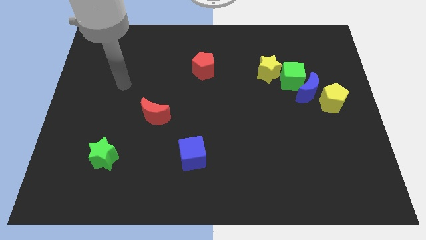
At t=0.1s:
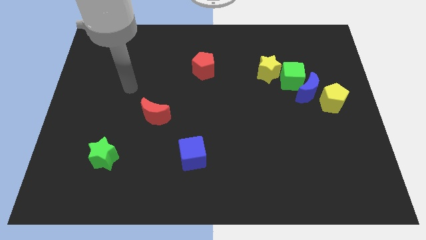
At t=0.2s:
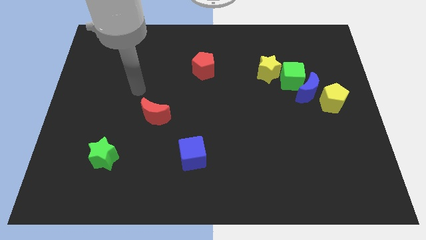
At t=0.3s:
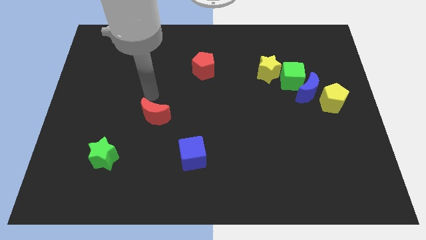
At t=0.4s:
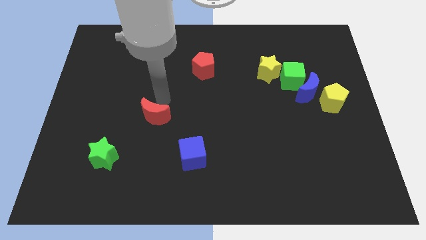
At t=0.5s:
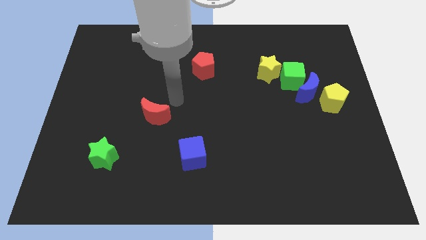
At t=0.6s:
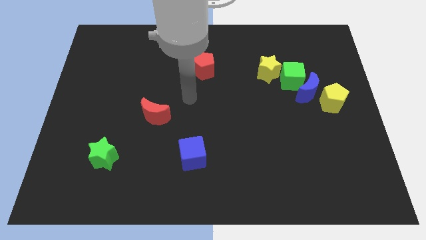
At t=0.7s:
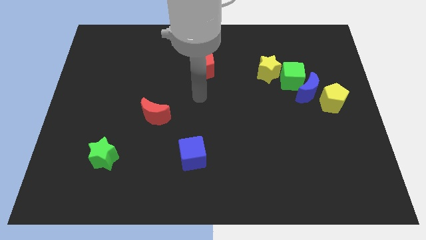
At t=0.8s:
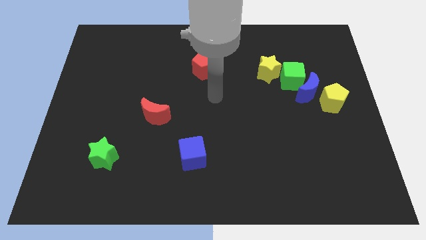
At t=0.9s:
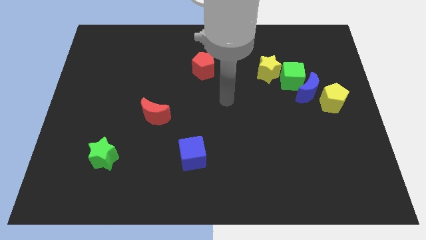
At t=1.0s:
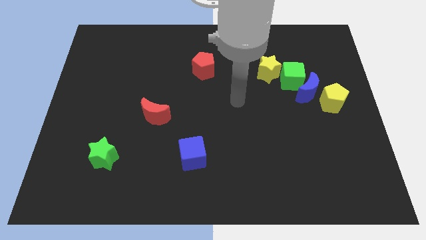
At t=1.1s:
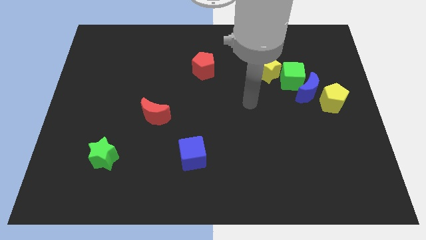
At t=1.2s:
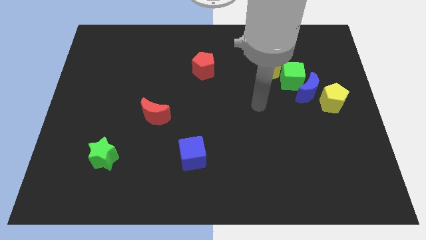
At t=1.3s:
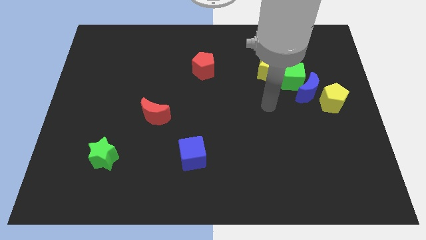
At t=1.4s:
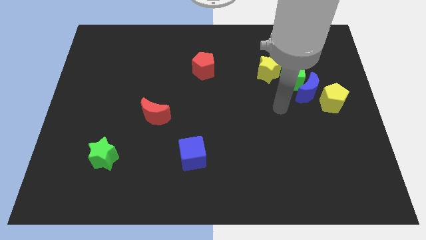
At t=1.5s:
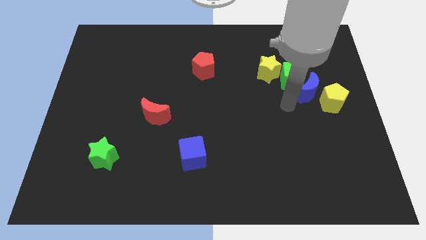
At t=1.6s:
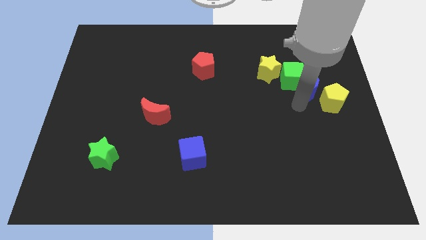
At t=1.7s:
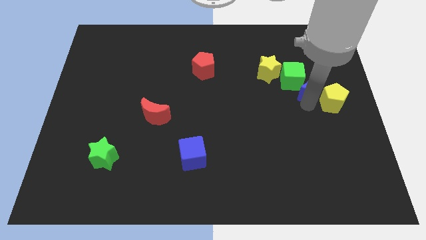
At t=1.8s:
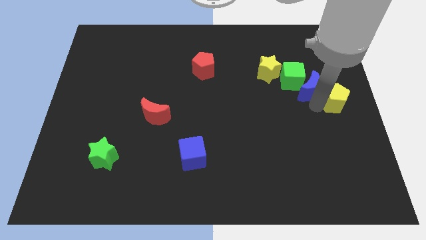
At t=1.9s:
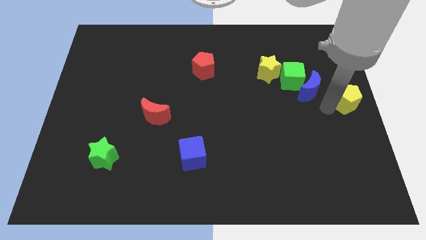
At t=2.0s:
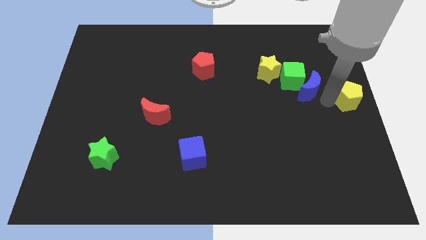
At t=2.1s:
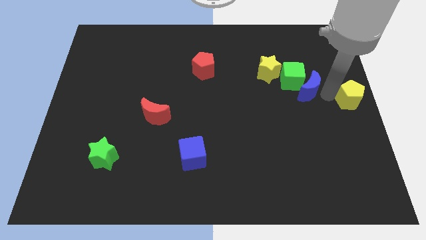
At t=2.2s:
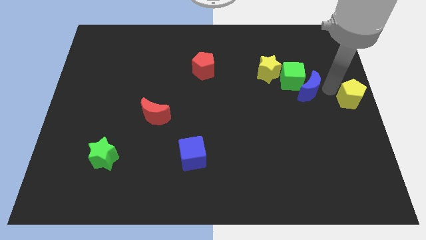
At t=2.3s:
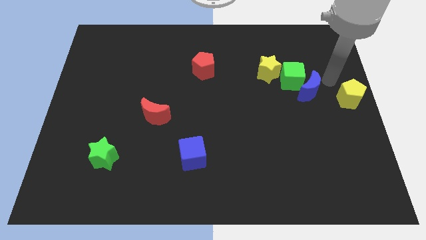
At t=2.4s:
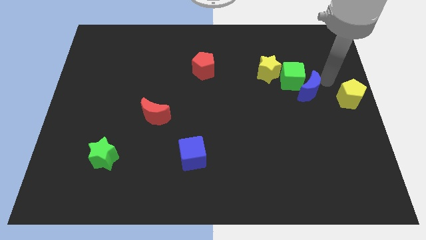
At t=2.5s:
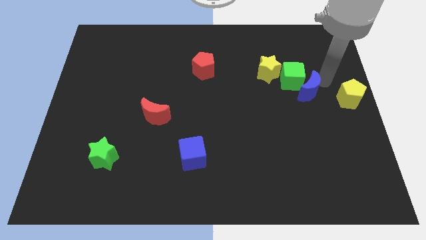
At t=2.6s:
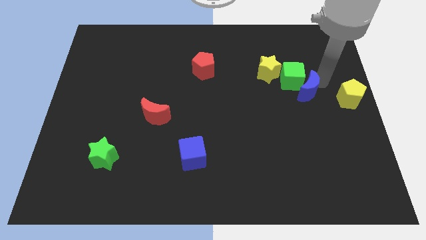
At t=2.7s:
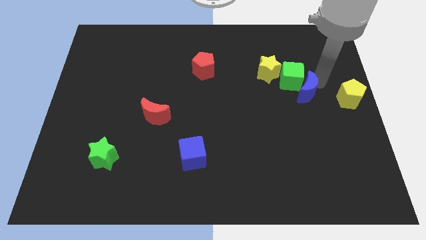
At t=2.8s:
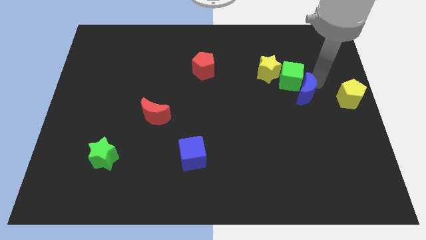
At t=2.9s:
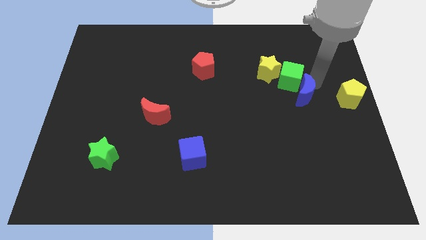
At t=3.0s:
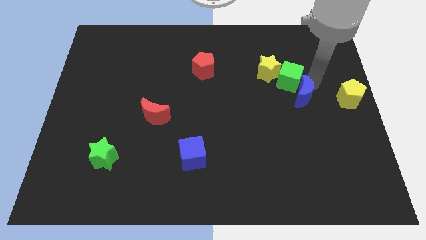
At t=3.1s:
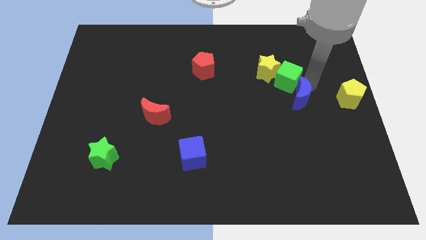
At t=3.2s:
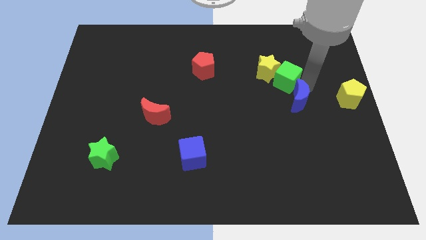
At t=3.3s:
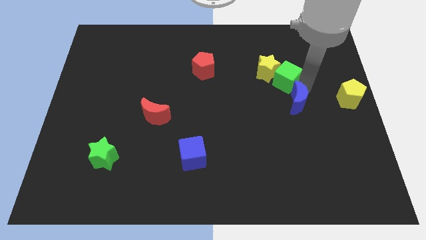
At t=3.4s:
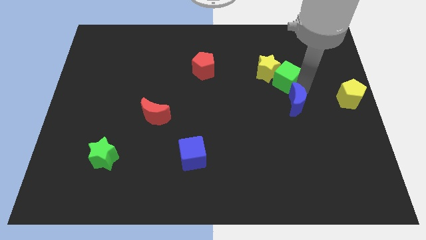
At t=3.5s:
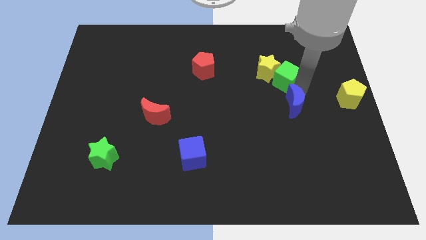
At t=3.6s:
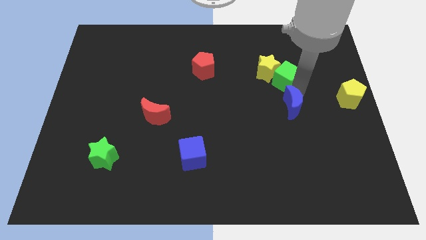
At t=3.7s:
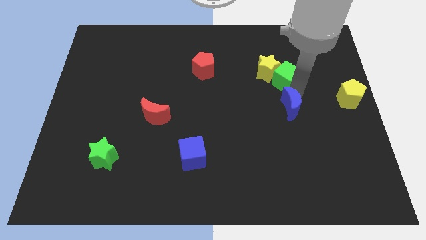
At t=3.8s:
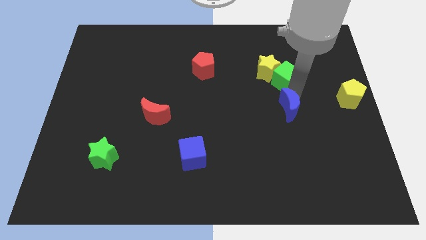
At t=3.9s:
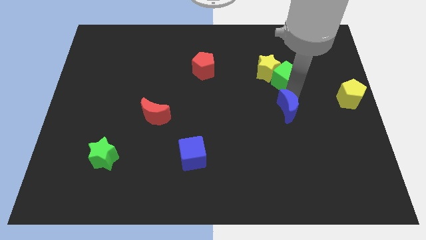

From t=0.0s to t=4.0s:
move the blue moon away from the green cube and yellow pentagon

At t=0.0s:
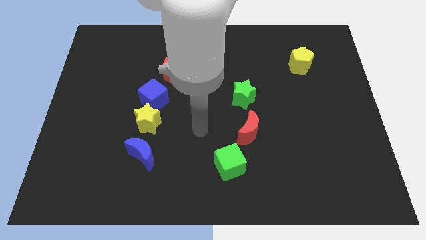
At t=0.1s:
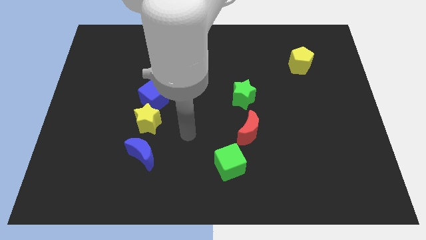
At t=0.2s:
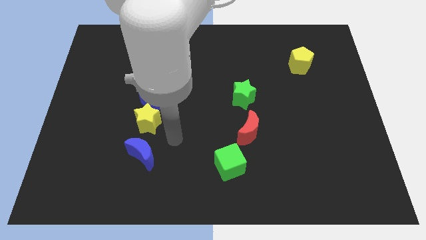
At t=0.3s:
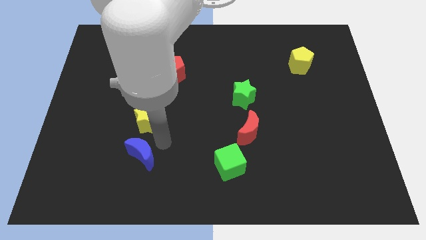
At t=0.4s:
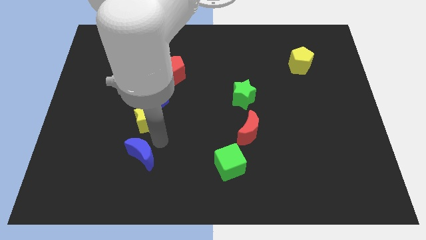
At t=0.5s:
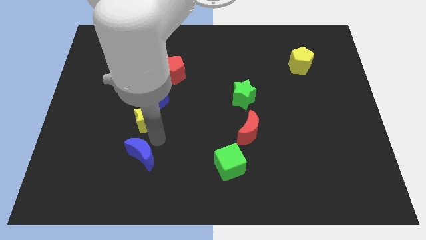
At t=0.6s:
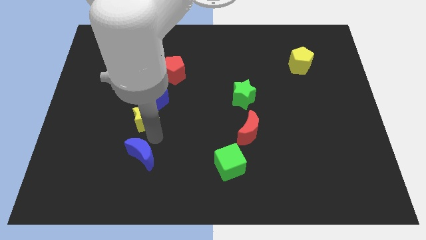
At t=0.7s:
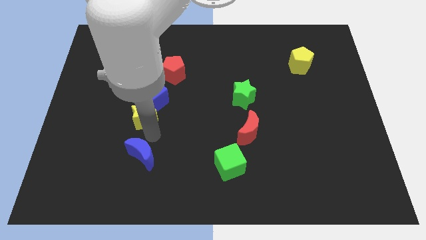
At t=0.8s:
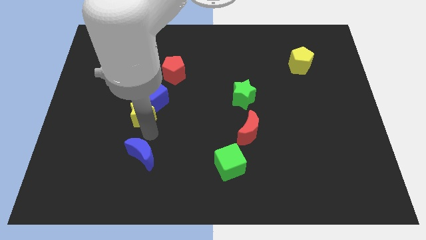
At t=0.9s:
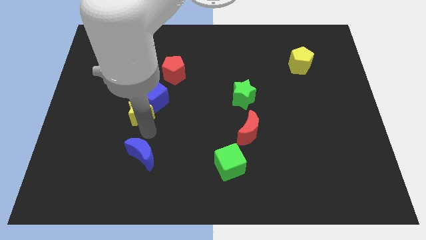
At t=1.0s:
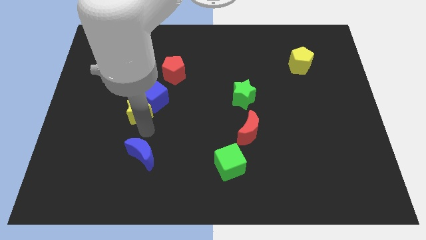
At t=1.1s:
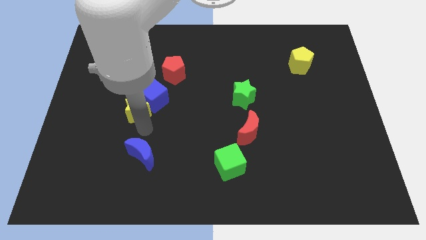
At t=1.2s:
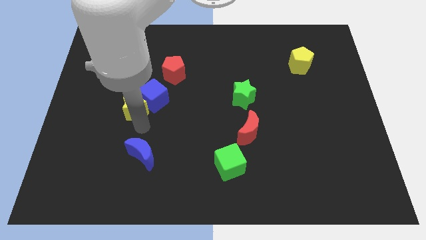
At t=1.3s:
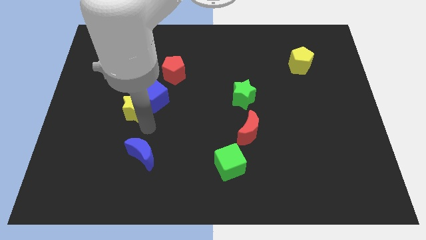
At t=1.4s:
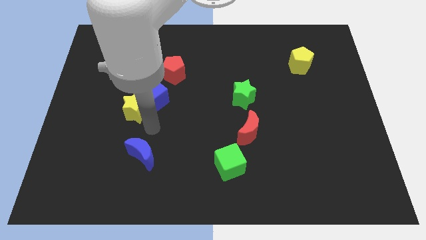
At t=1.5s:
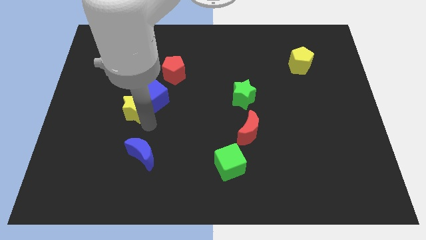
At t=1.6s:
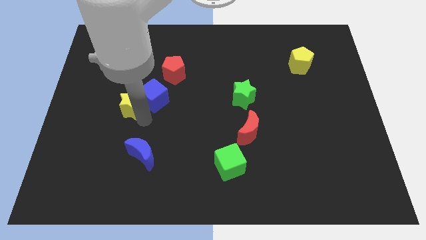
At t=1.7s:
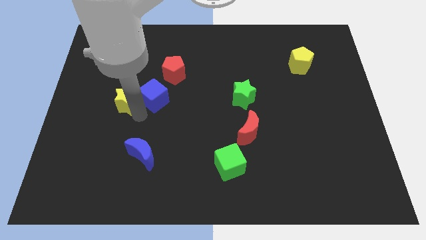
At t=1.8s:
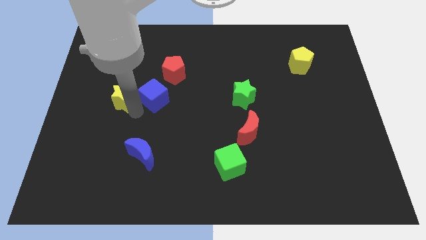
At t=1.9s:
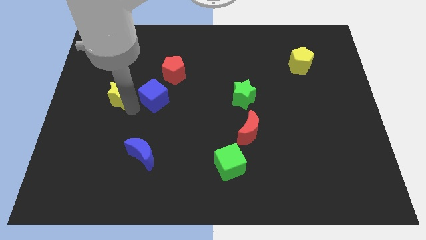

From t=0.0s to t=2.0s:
move the yellow star away from the blue cube and blue moon

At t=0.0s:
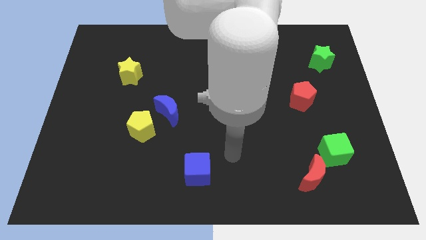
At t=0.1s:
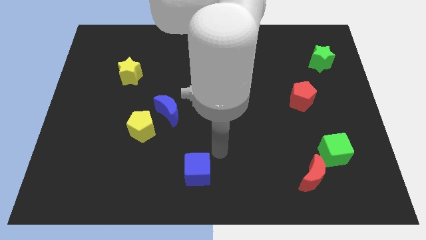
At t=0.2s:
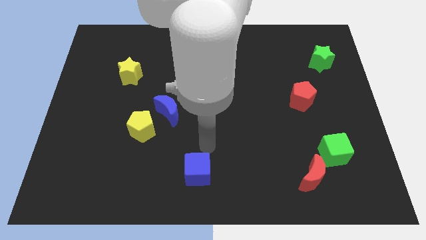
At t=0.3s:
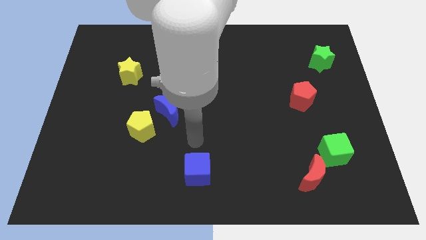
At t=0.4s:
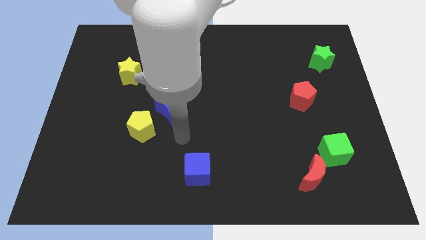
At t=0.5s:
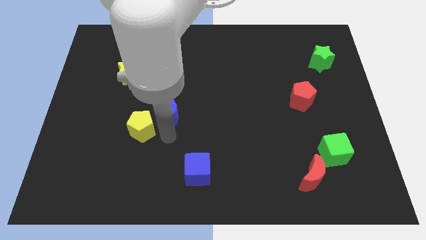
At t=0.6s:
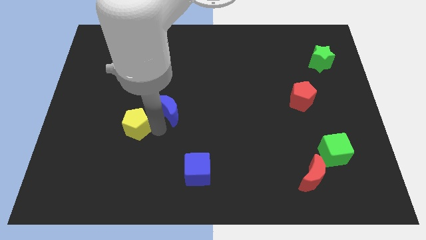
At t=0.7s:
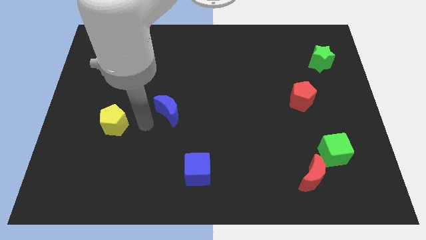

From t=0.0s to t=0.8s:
move the blue moon away from the yellow pentagon

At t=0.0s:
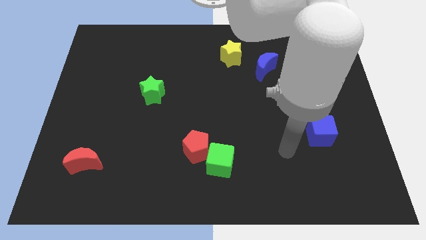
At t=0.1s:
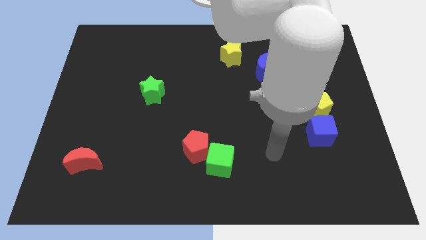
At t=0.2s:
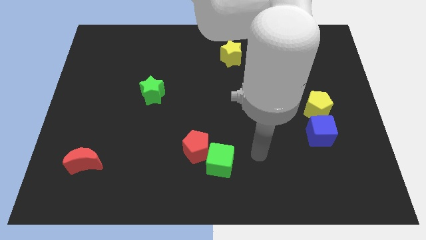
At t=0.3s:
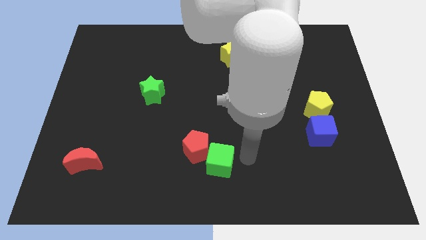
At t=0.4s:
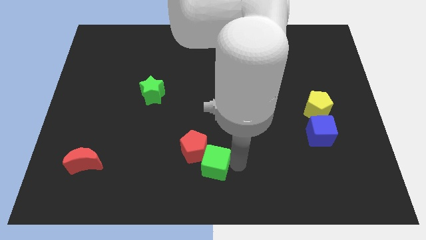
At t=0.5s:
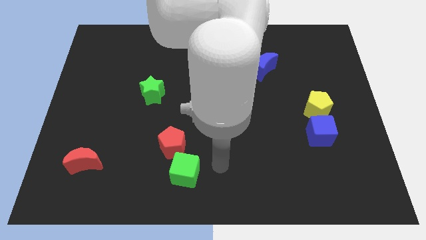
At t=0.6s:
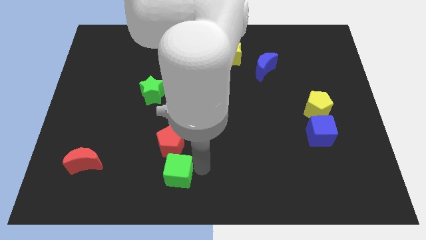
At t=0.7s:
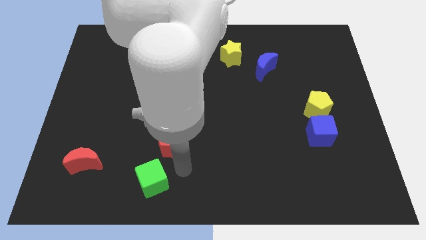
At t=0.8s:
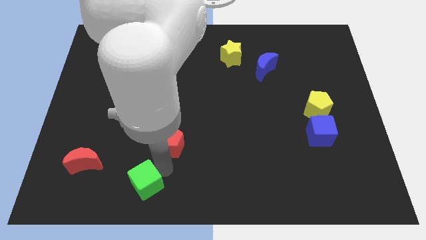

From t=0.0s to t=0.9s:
move the red pentagon away from the green cube

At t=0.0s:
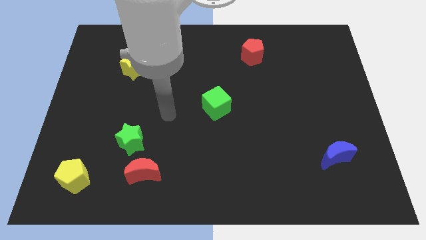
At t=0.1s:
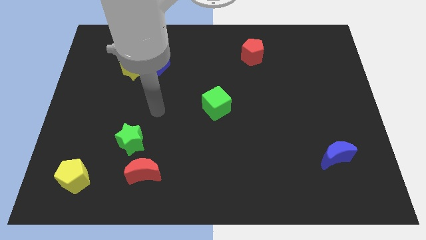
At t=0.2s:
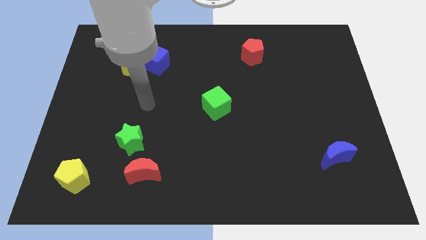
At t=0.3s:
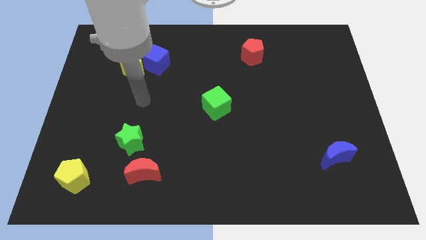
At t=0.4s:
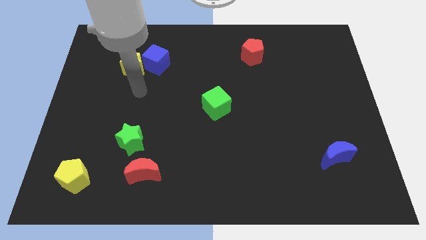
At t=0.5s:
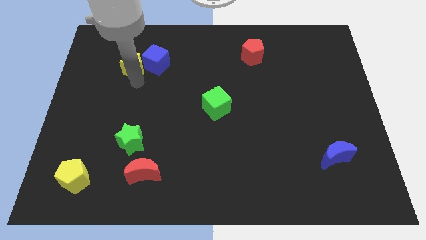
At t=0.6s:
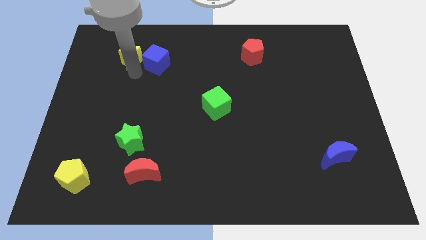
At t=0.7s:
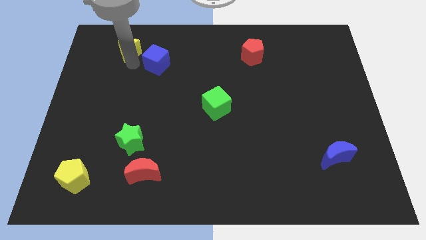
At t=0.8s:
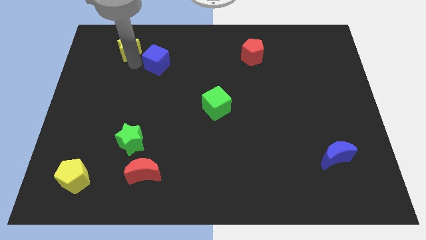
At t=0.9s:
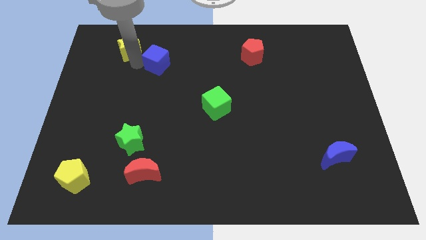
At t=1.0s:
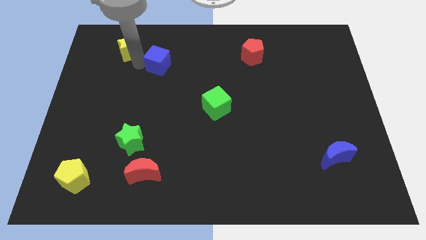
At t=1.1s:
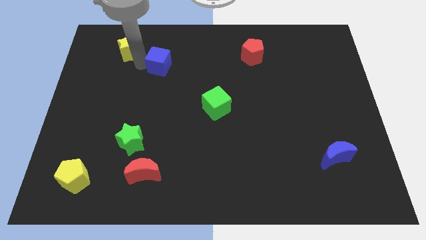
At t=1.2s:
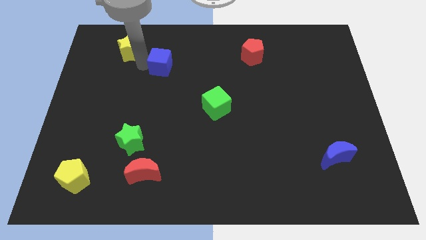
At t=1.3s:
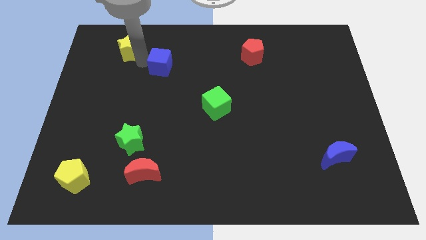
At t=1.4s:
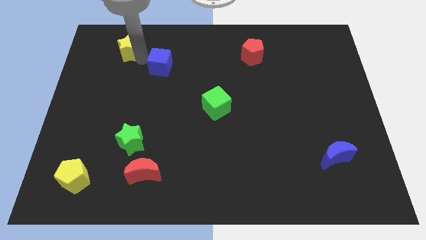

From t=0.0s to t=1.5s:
move the blue cube away from the yellow star

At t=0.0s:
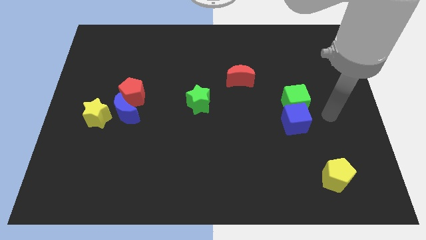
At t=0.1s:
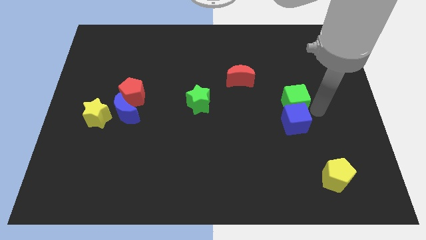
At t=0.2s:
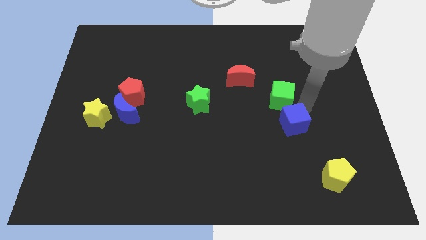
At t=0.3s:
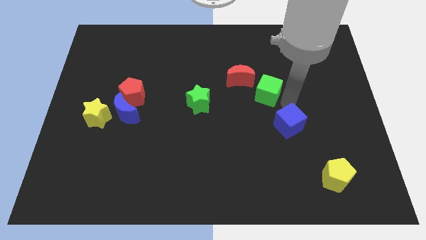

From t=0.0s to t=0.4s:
separate the blue cube from the green cube
